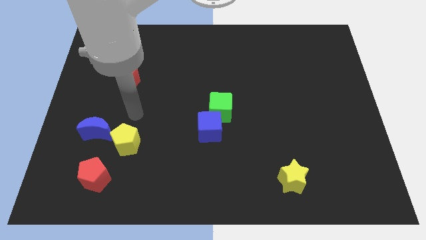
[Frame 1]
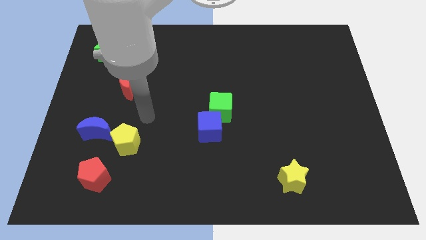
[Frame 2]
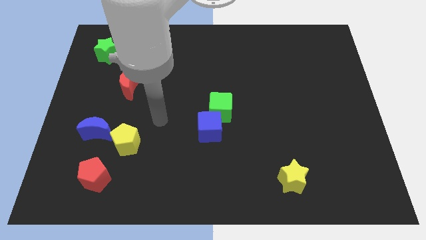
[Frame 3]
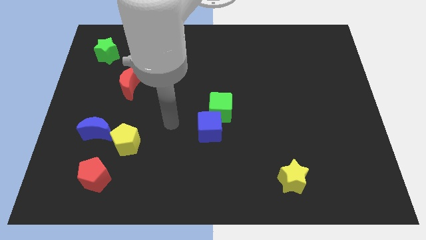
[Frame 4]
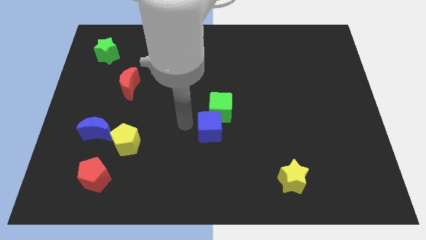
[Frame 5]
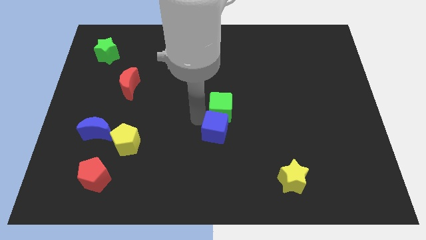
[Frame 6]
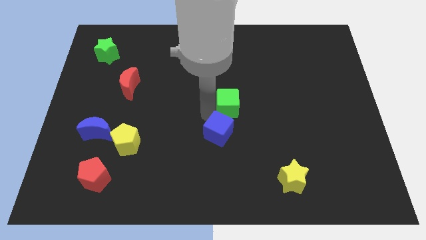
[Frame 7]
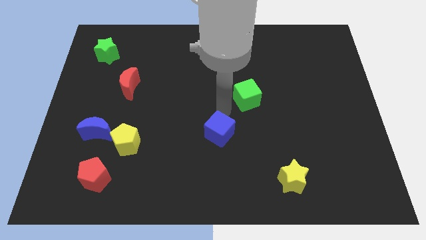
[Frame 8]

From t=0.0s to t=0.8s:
move the blue cube away from the green cube

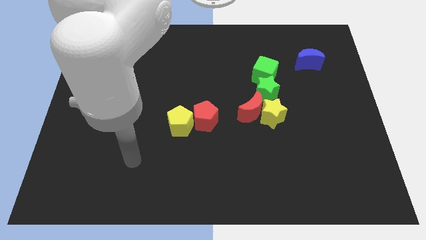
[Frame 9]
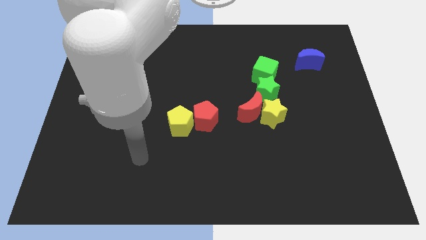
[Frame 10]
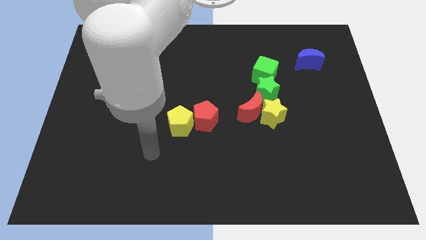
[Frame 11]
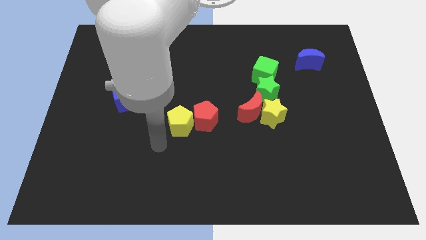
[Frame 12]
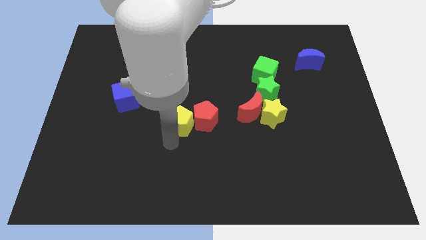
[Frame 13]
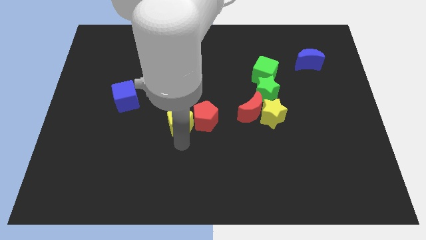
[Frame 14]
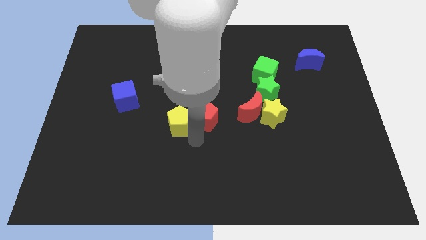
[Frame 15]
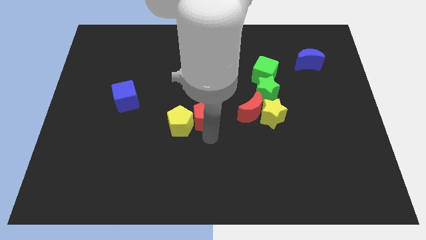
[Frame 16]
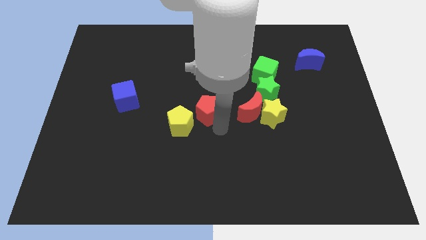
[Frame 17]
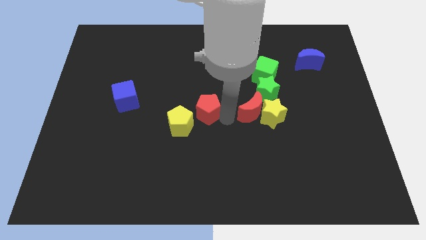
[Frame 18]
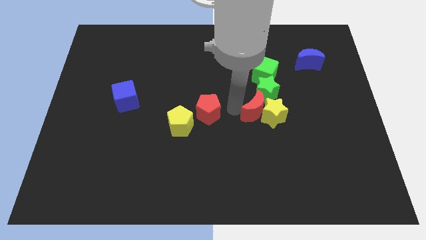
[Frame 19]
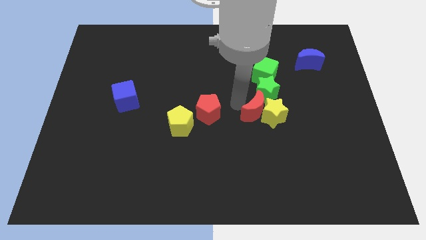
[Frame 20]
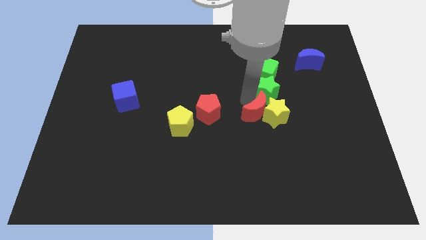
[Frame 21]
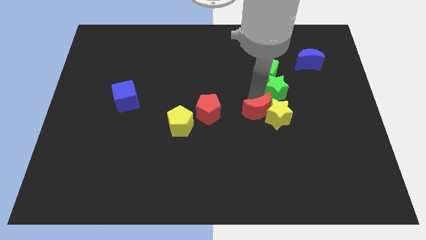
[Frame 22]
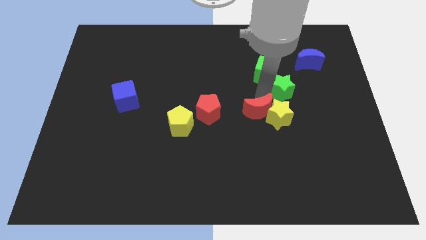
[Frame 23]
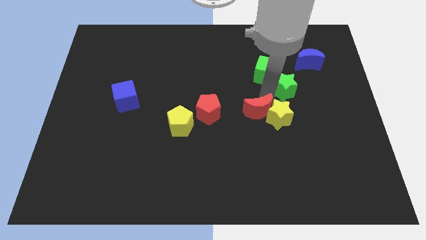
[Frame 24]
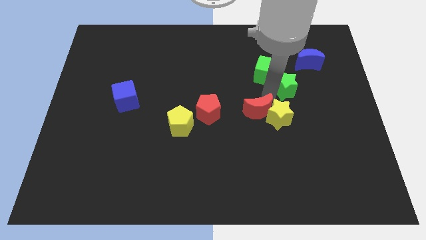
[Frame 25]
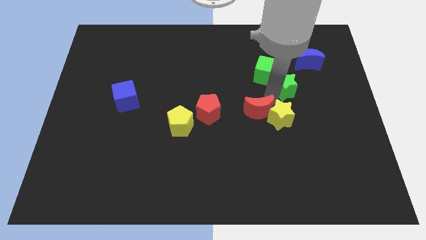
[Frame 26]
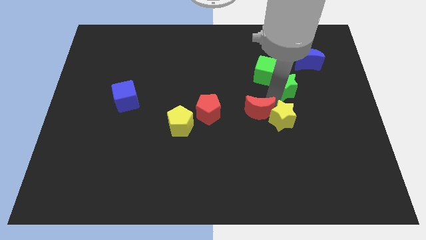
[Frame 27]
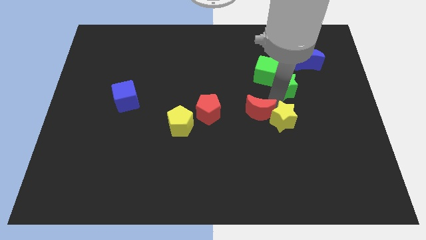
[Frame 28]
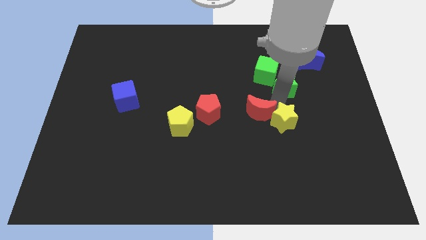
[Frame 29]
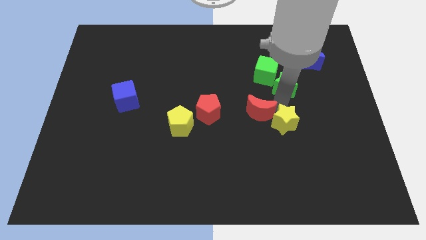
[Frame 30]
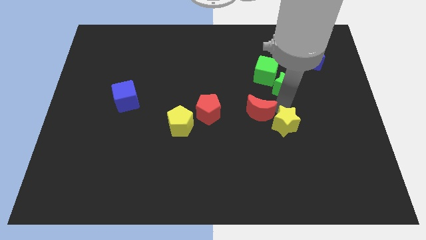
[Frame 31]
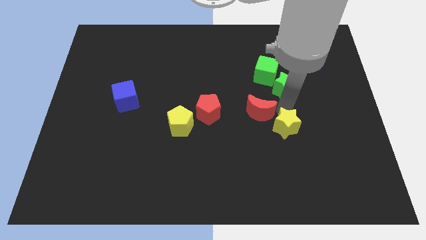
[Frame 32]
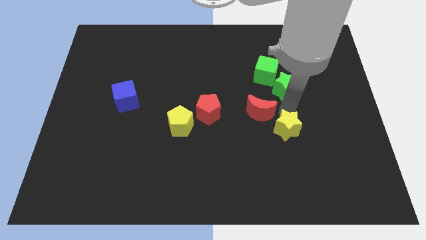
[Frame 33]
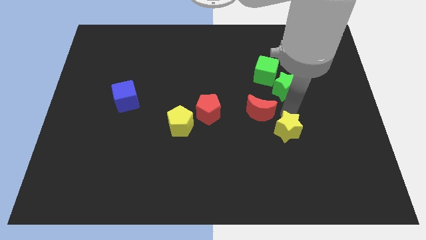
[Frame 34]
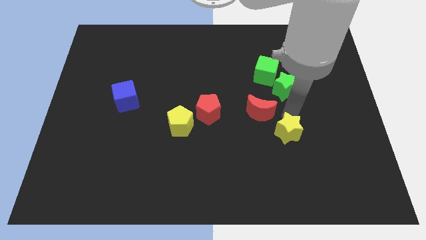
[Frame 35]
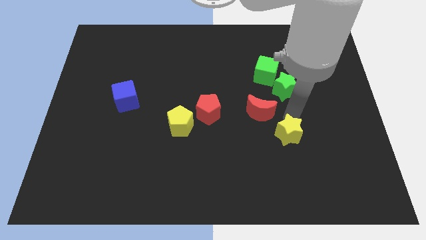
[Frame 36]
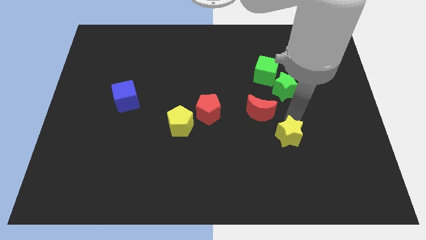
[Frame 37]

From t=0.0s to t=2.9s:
separate the yellow star from the red moon and green star

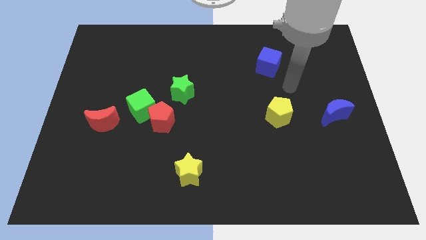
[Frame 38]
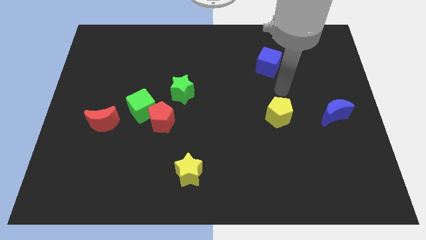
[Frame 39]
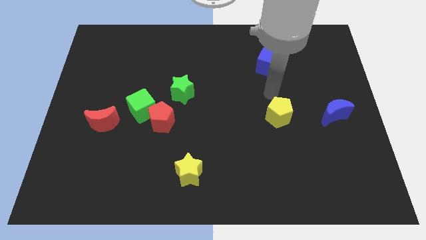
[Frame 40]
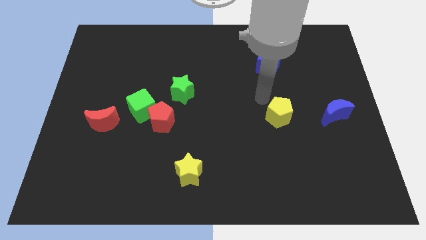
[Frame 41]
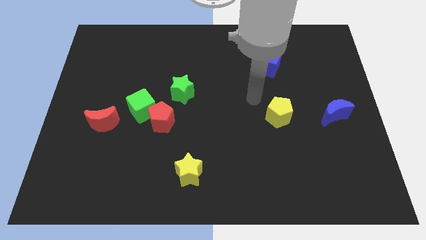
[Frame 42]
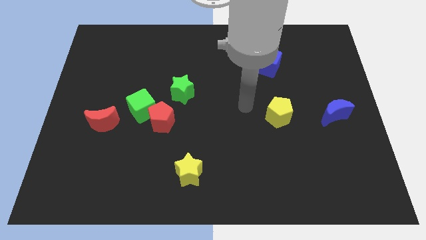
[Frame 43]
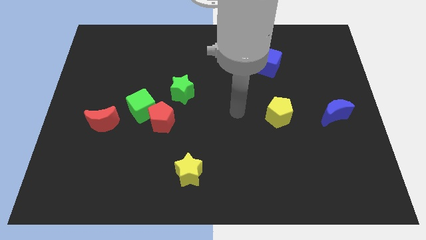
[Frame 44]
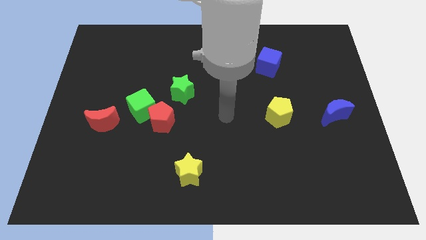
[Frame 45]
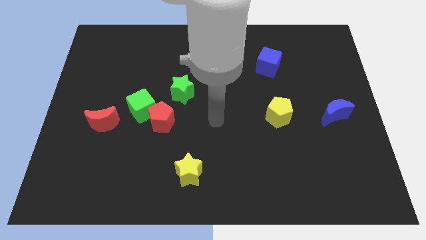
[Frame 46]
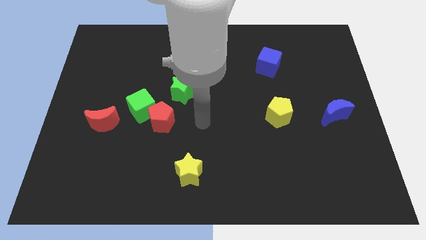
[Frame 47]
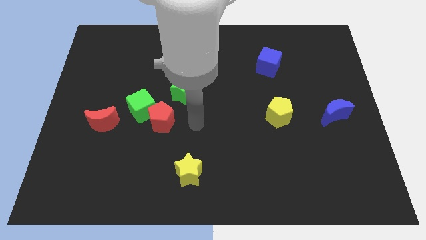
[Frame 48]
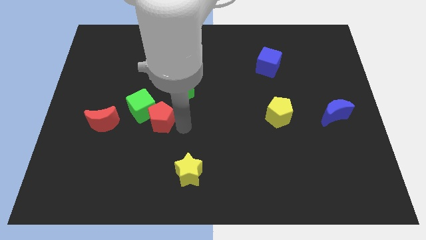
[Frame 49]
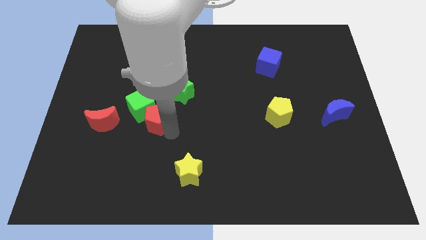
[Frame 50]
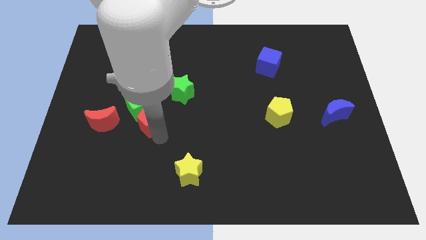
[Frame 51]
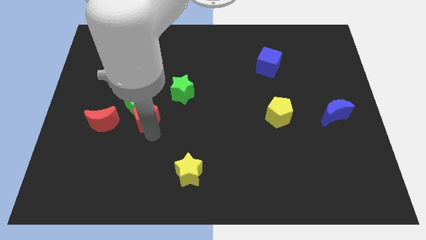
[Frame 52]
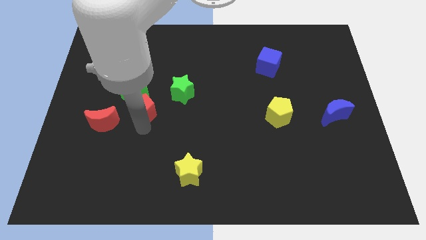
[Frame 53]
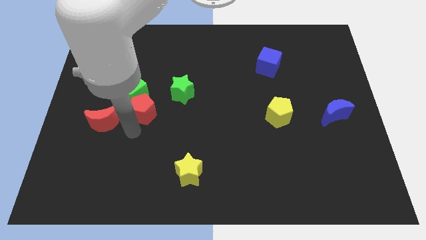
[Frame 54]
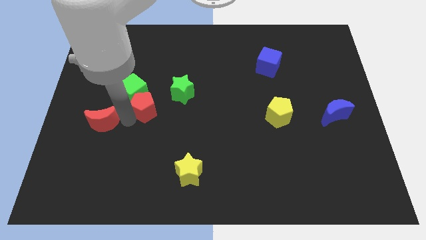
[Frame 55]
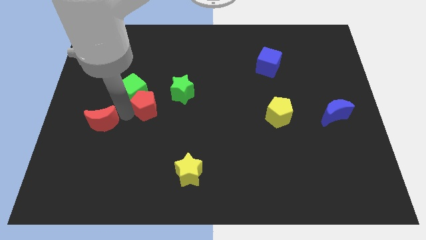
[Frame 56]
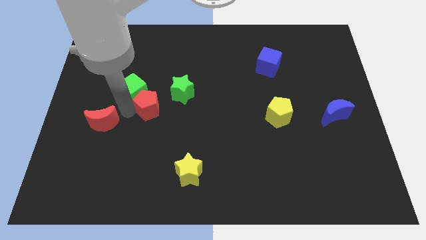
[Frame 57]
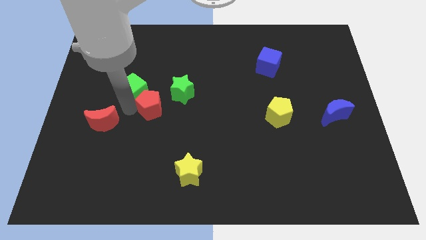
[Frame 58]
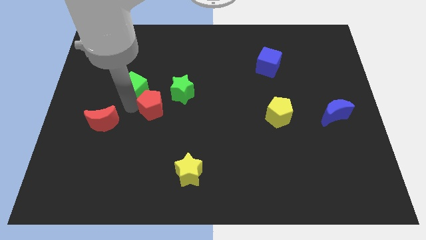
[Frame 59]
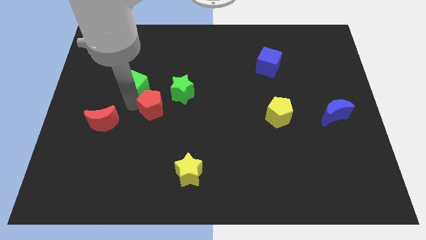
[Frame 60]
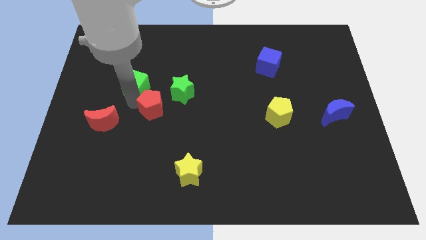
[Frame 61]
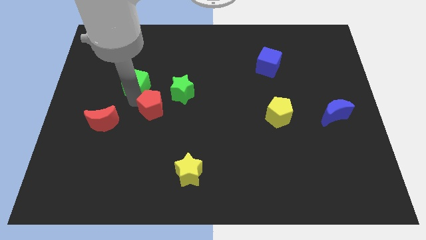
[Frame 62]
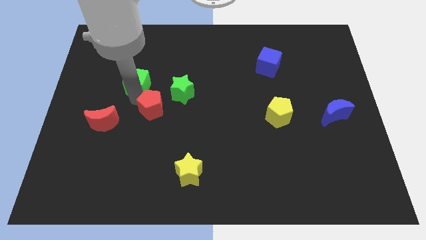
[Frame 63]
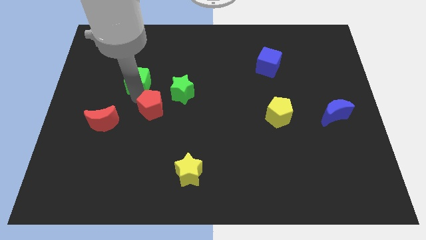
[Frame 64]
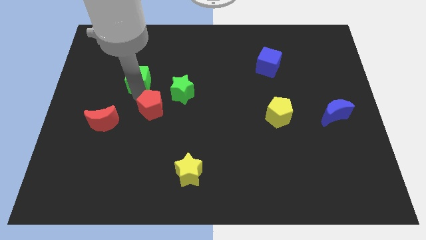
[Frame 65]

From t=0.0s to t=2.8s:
move the green cube away from the red pentagon and red moon

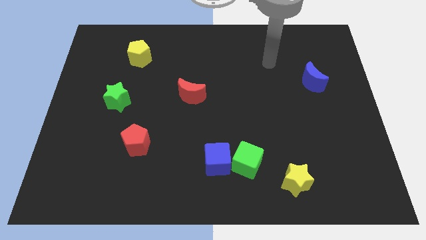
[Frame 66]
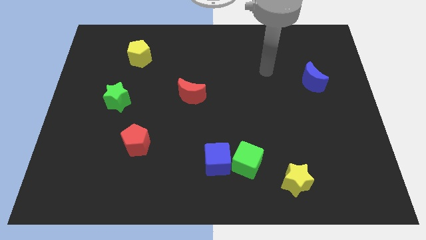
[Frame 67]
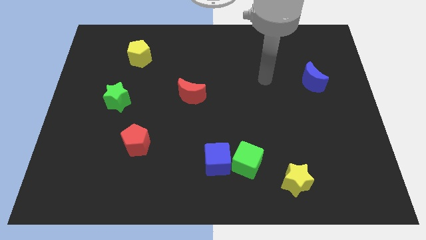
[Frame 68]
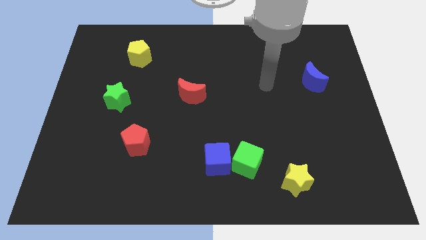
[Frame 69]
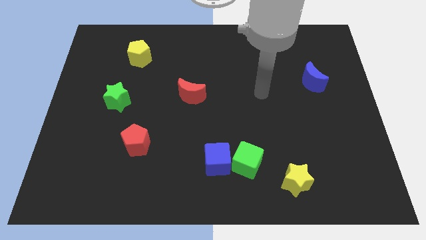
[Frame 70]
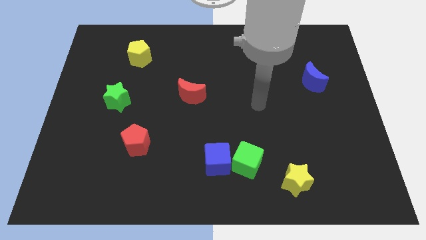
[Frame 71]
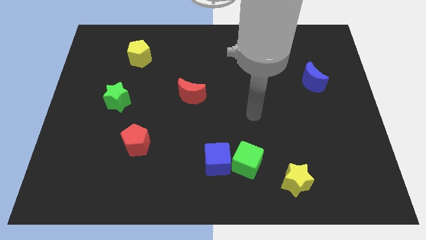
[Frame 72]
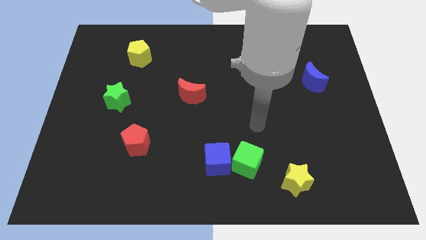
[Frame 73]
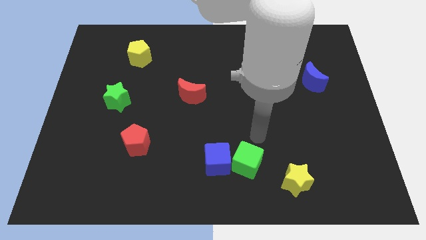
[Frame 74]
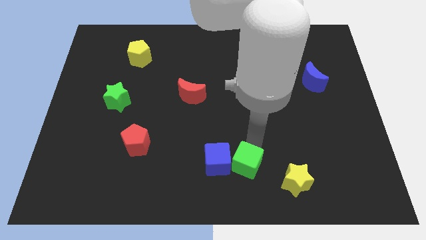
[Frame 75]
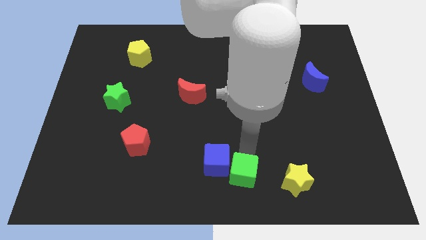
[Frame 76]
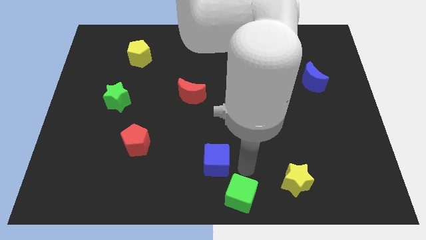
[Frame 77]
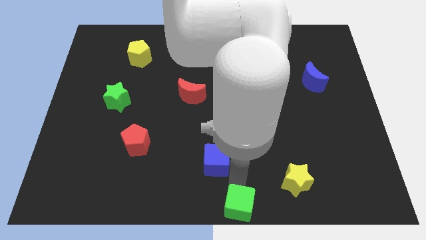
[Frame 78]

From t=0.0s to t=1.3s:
pull the blue cube apart from the green cube

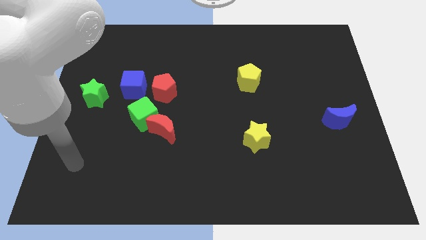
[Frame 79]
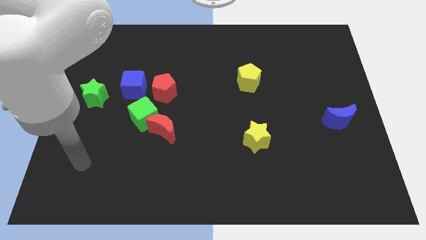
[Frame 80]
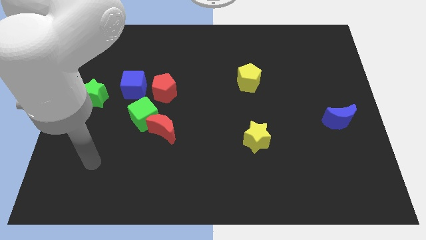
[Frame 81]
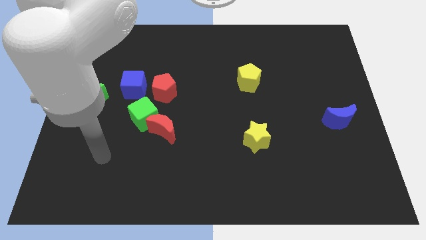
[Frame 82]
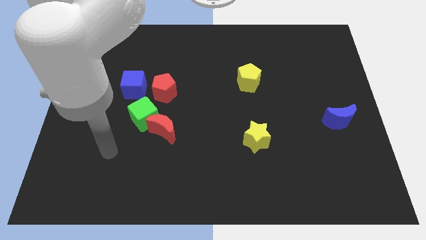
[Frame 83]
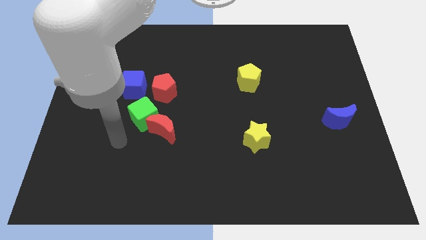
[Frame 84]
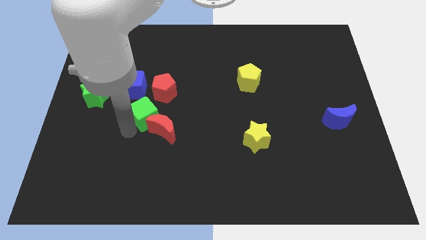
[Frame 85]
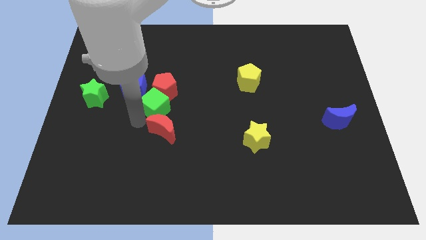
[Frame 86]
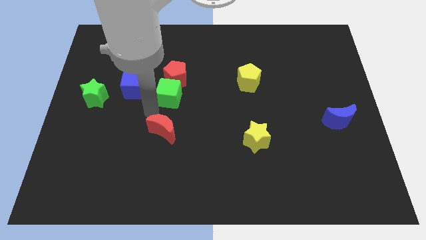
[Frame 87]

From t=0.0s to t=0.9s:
move the red moon away from the green cube

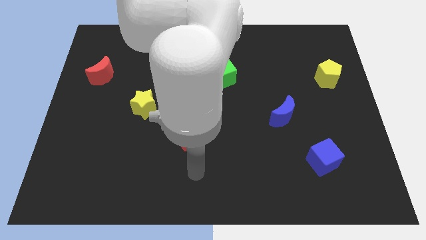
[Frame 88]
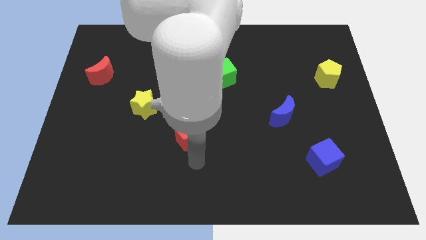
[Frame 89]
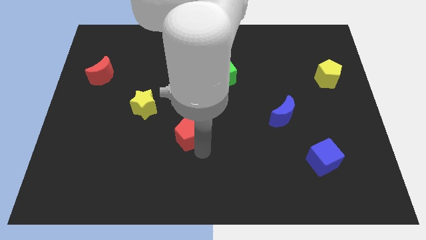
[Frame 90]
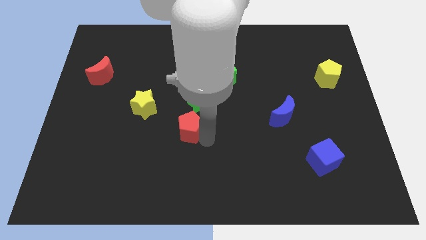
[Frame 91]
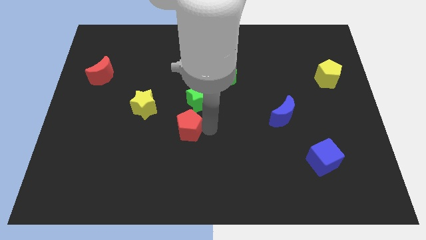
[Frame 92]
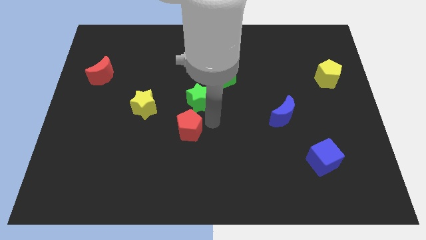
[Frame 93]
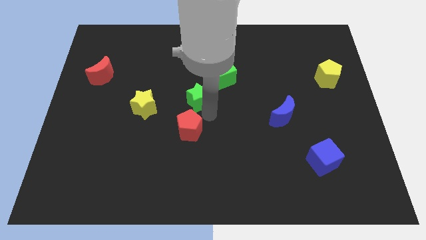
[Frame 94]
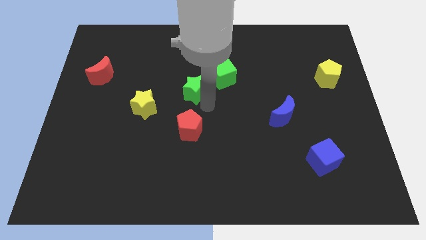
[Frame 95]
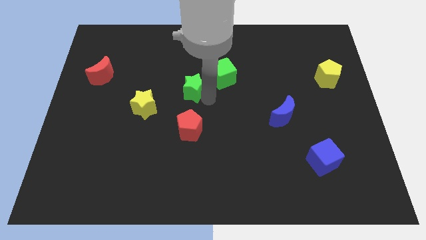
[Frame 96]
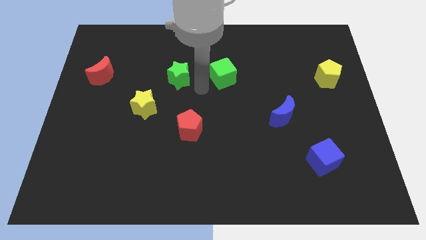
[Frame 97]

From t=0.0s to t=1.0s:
separate the green cube from the green star
